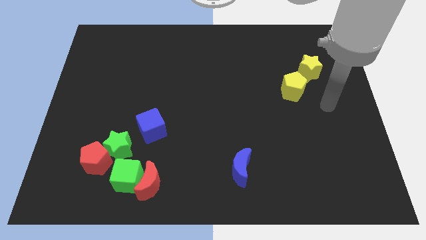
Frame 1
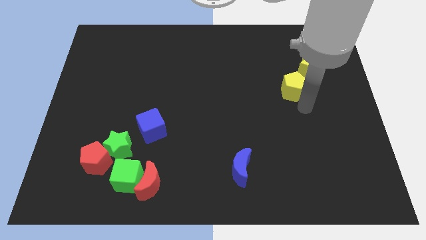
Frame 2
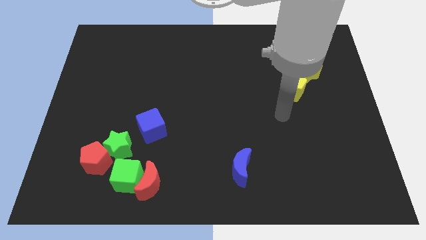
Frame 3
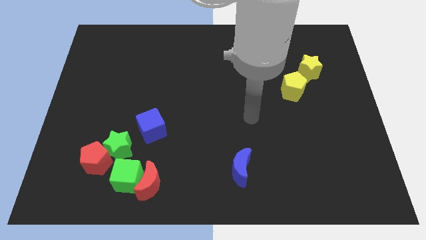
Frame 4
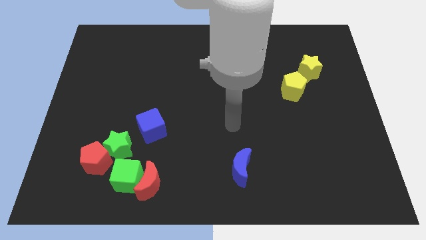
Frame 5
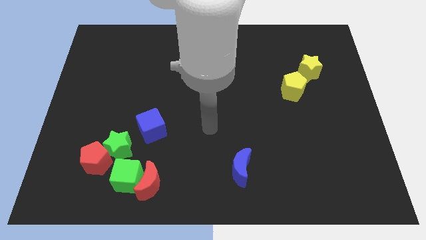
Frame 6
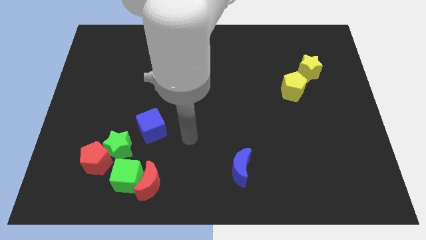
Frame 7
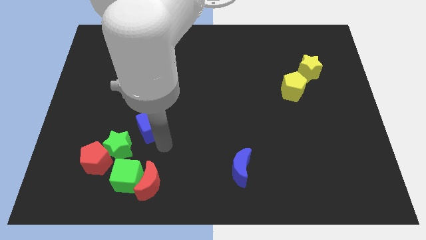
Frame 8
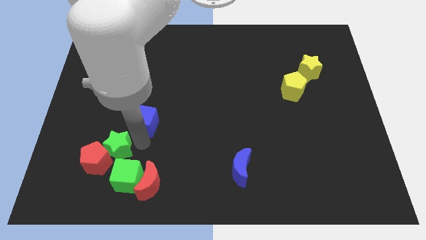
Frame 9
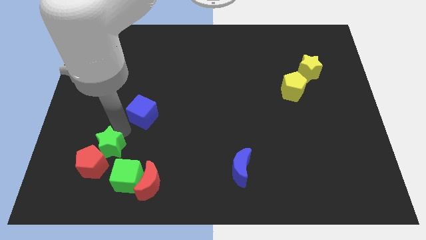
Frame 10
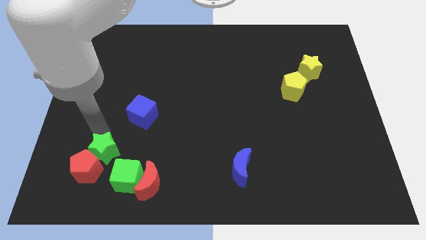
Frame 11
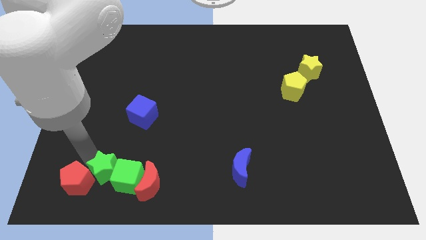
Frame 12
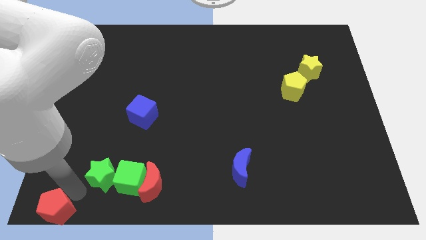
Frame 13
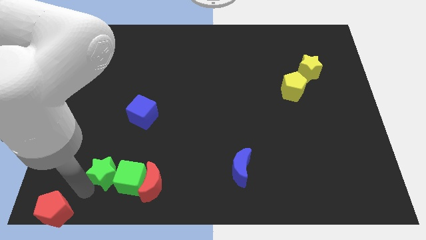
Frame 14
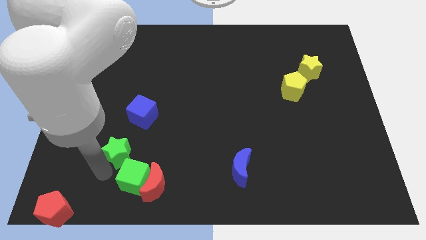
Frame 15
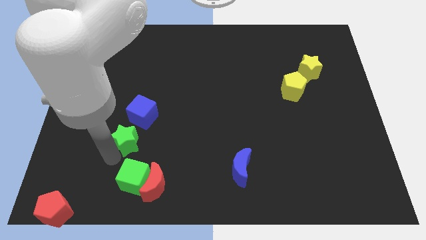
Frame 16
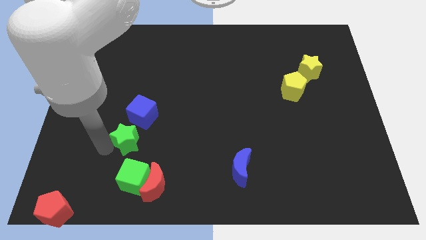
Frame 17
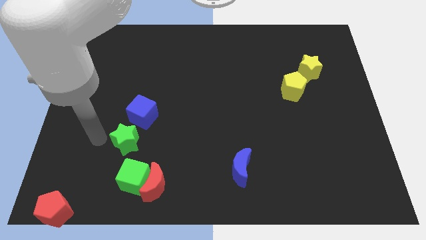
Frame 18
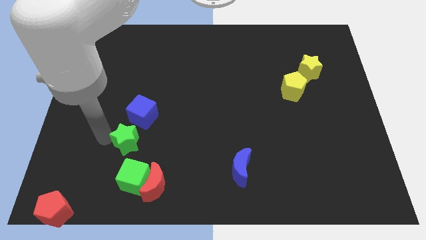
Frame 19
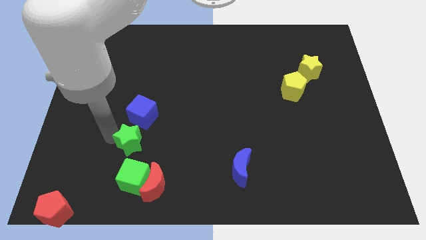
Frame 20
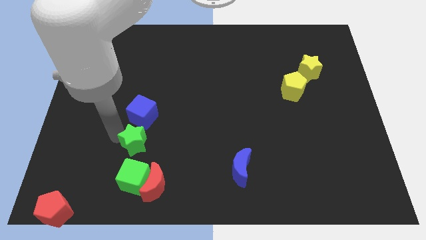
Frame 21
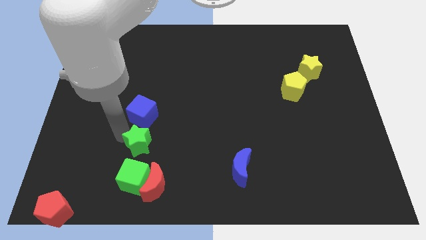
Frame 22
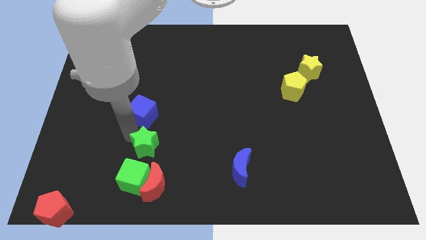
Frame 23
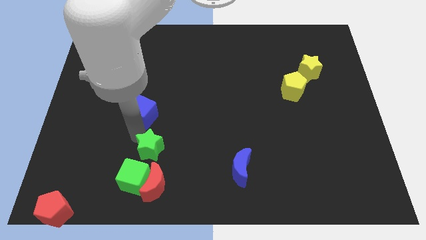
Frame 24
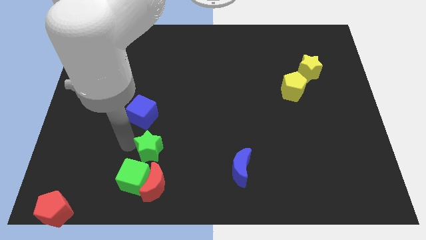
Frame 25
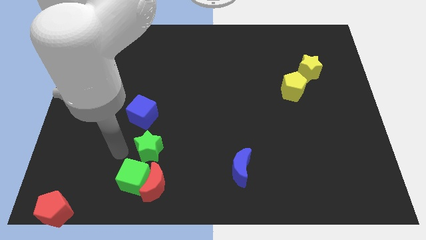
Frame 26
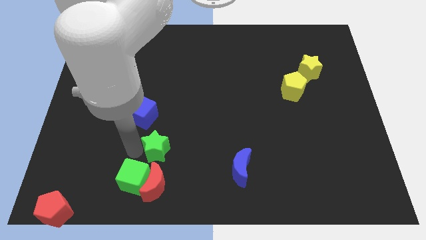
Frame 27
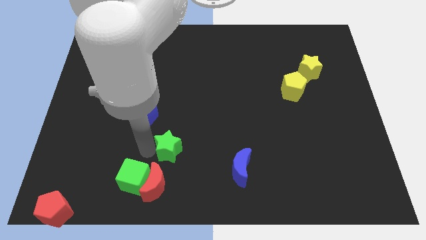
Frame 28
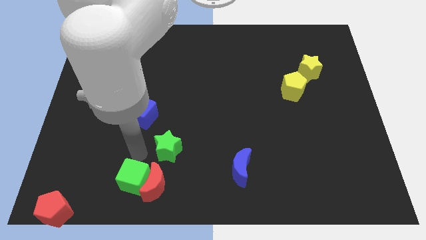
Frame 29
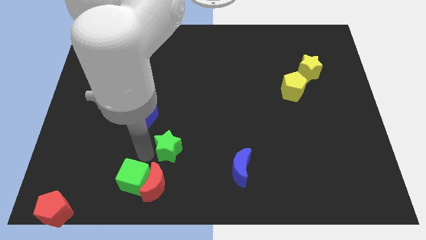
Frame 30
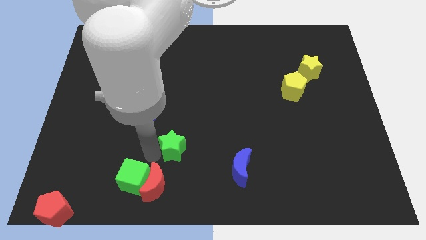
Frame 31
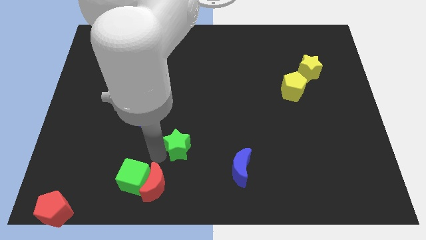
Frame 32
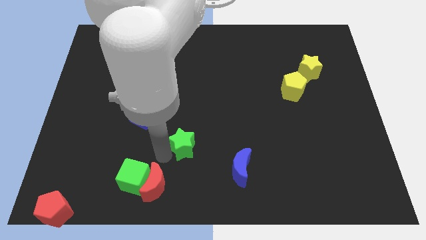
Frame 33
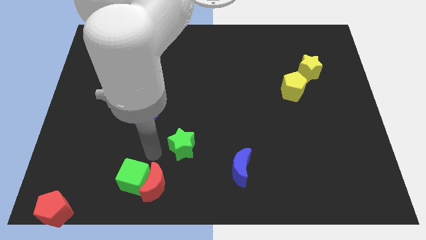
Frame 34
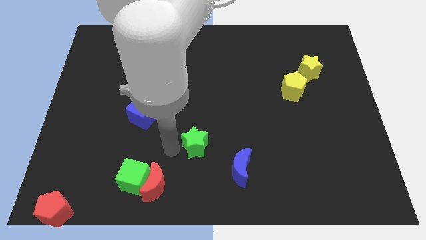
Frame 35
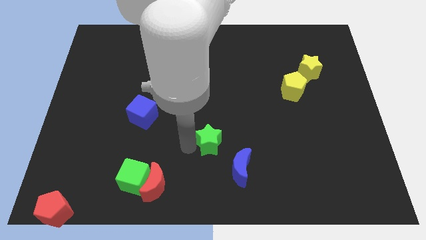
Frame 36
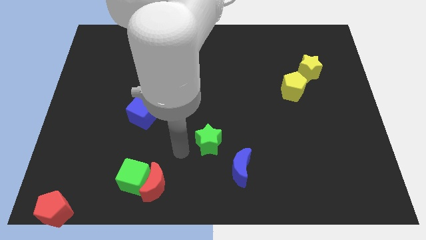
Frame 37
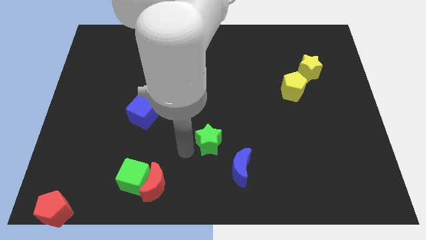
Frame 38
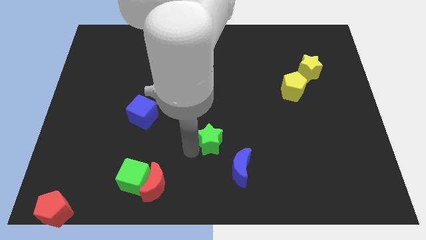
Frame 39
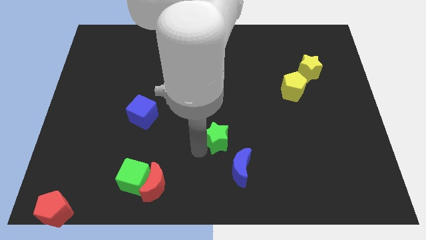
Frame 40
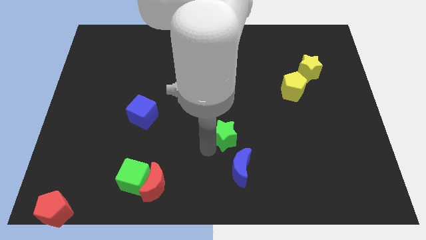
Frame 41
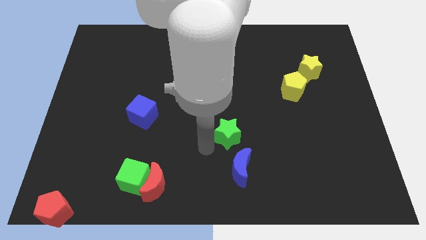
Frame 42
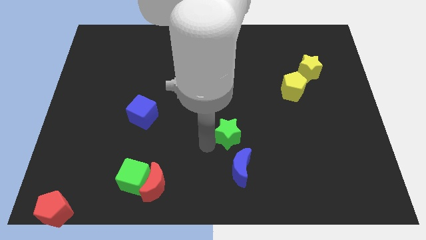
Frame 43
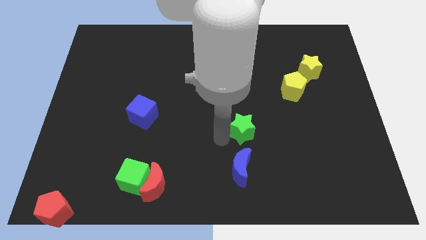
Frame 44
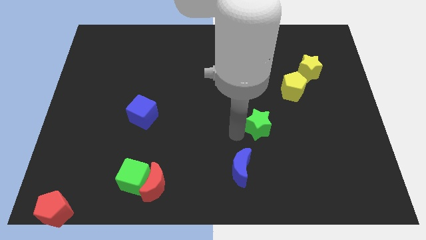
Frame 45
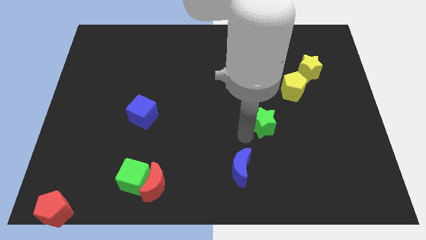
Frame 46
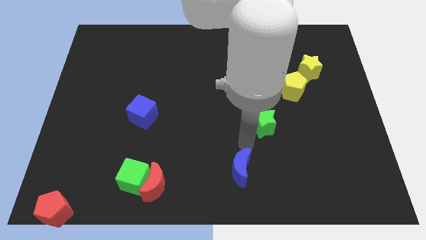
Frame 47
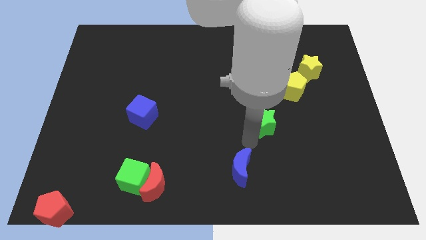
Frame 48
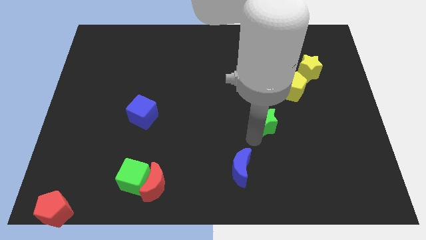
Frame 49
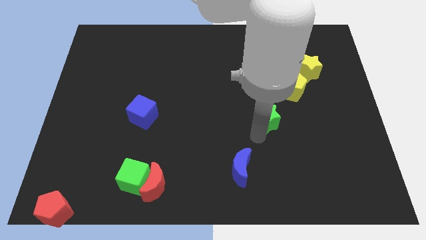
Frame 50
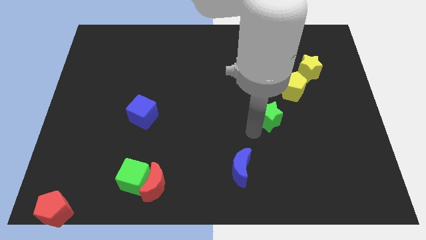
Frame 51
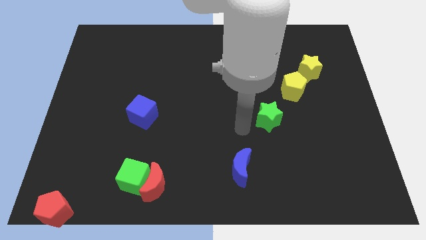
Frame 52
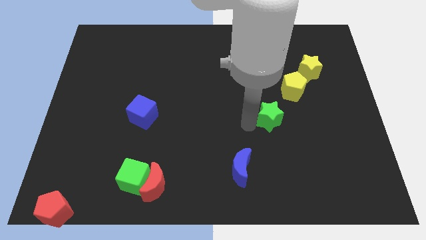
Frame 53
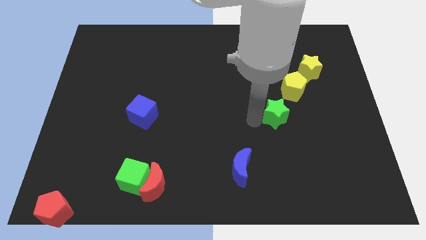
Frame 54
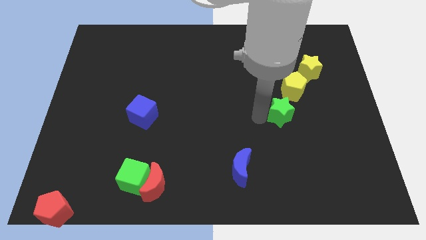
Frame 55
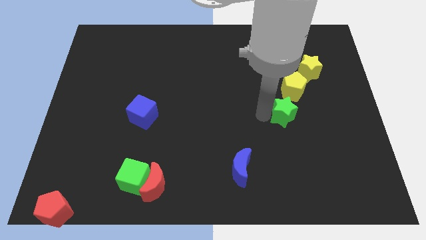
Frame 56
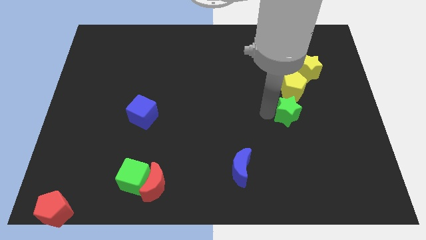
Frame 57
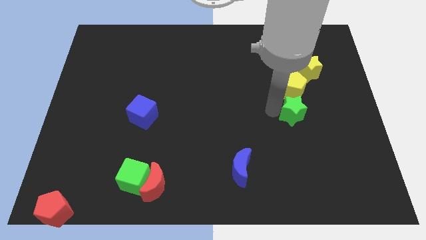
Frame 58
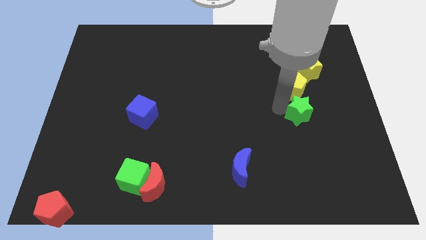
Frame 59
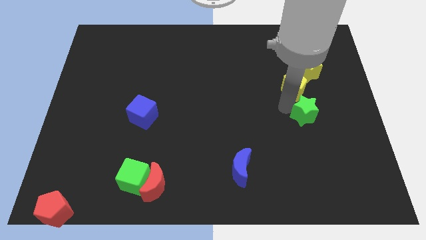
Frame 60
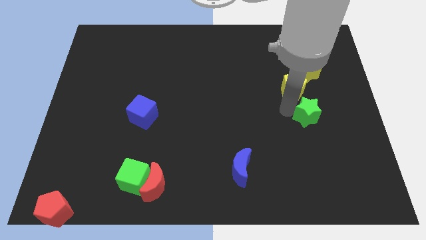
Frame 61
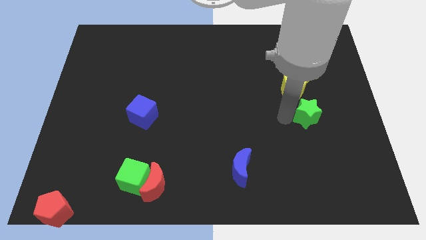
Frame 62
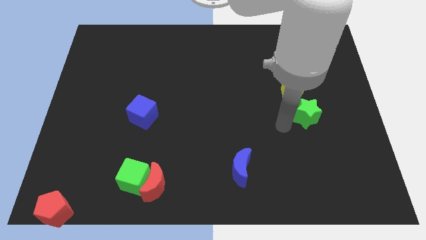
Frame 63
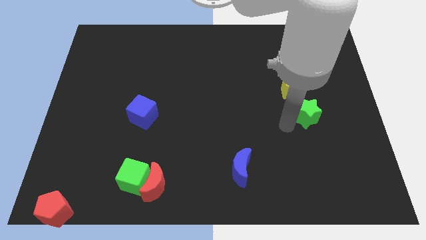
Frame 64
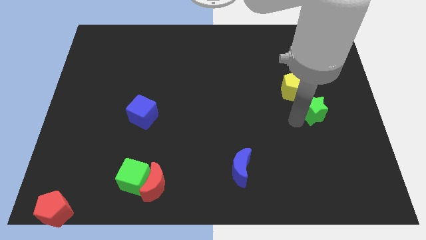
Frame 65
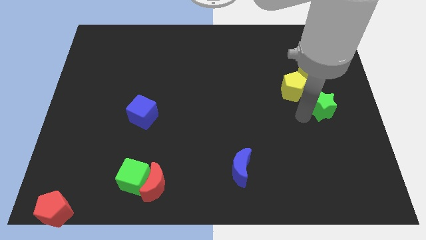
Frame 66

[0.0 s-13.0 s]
slide the green star to the center right
